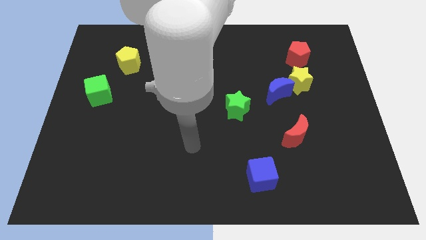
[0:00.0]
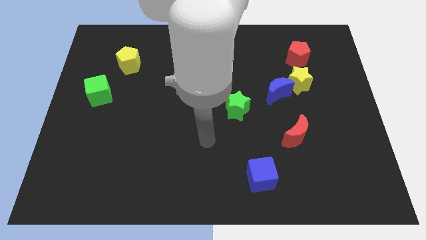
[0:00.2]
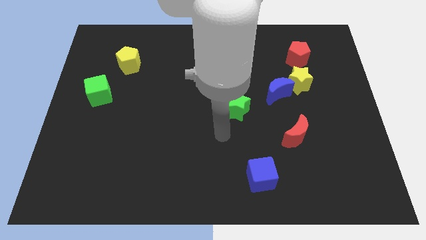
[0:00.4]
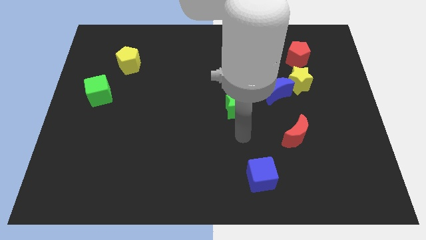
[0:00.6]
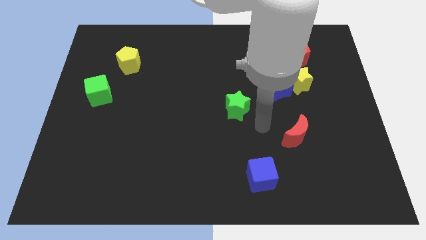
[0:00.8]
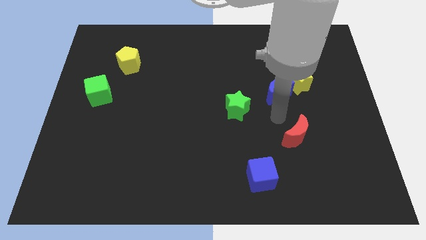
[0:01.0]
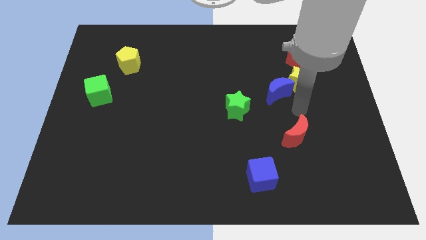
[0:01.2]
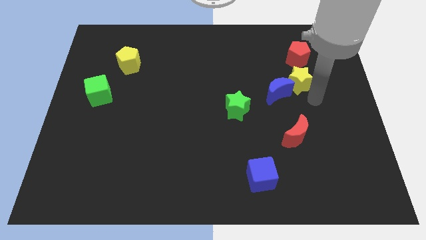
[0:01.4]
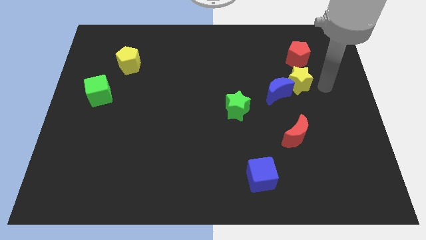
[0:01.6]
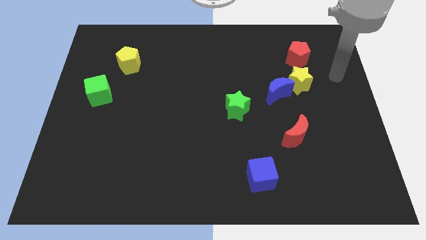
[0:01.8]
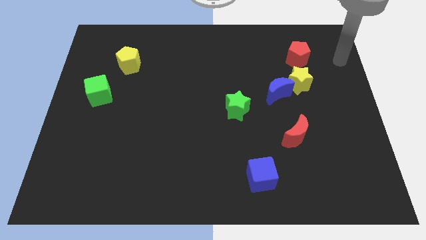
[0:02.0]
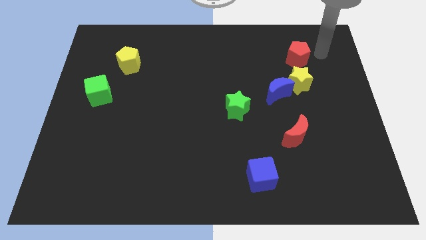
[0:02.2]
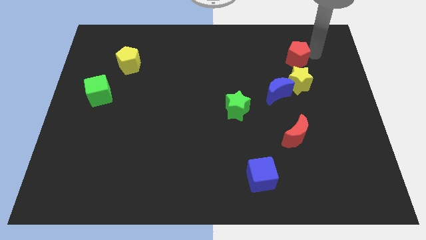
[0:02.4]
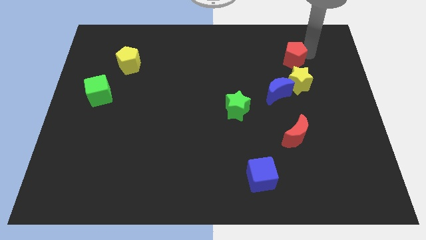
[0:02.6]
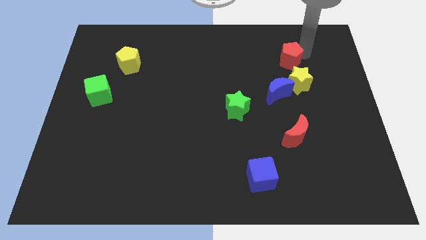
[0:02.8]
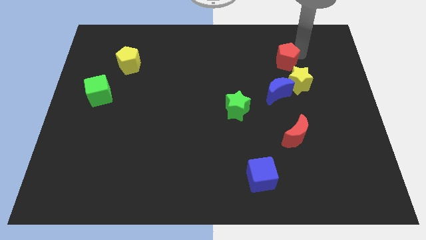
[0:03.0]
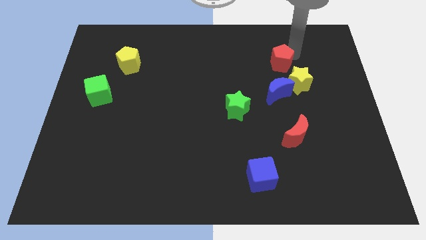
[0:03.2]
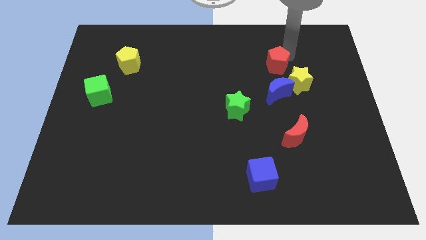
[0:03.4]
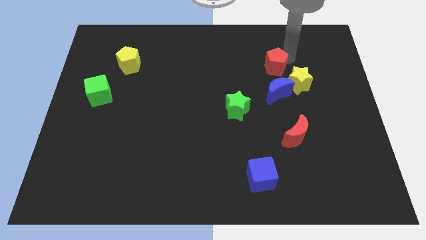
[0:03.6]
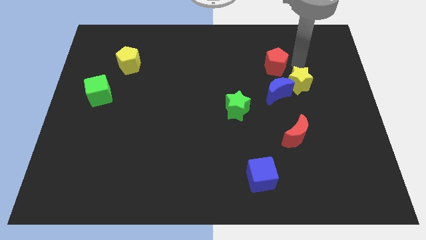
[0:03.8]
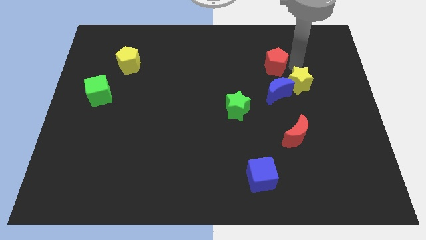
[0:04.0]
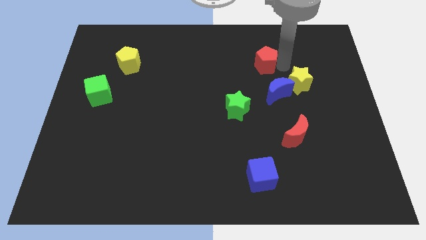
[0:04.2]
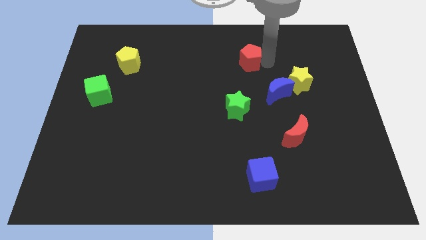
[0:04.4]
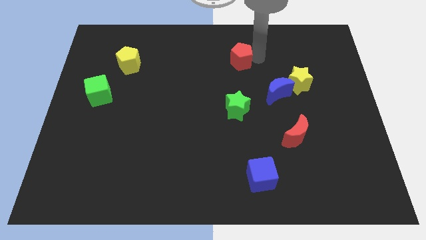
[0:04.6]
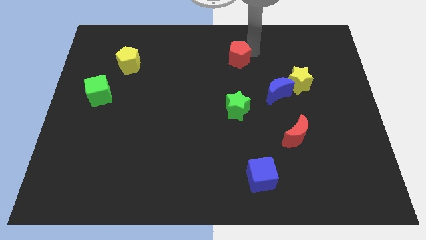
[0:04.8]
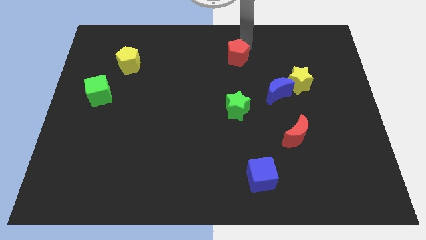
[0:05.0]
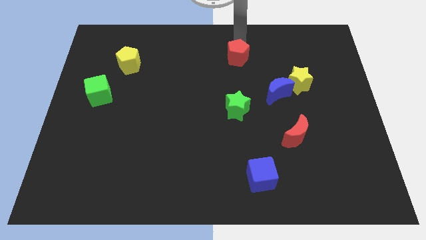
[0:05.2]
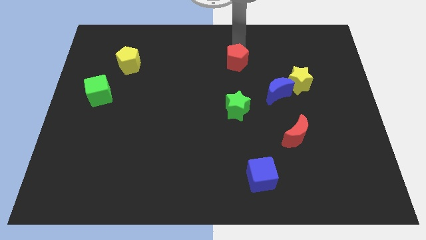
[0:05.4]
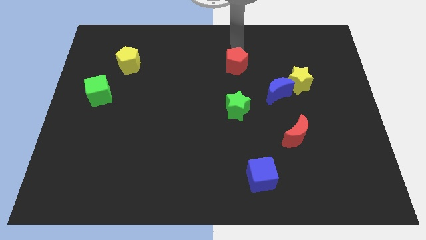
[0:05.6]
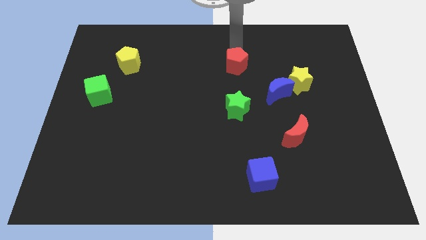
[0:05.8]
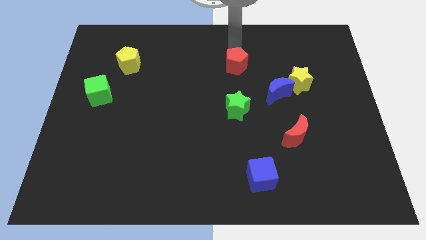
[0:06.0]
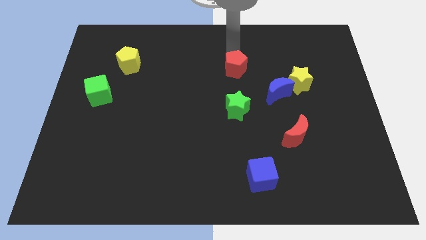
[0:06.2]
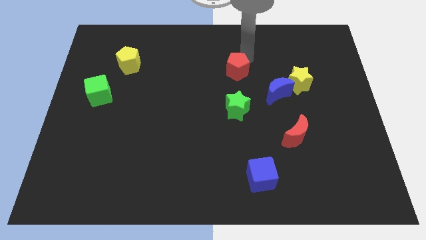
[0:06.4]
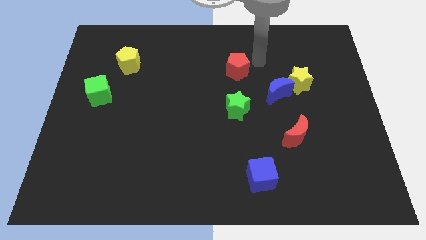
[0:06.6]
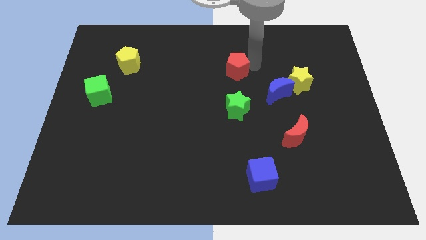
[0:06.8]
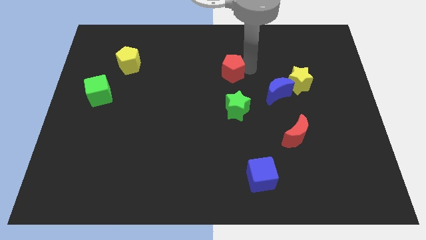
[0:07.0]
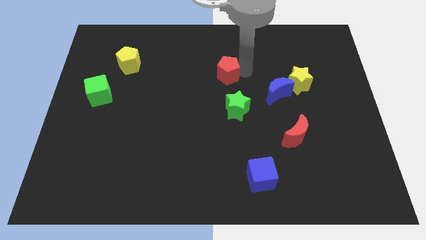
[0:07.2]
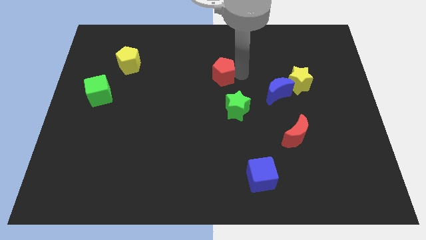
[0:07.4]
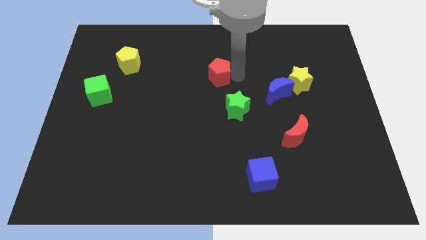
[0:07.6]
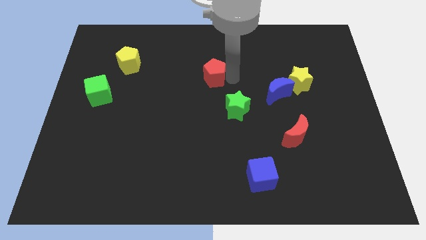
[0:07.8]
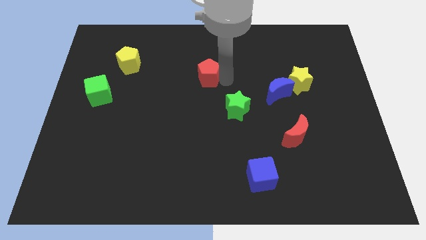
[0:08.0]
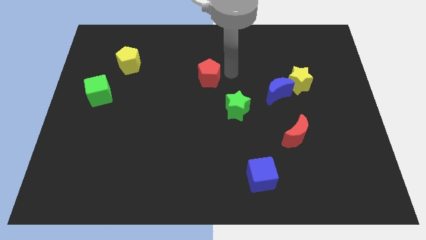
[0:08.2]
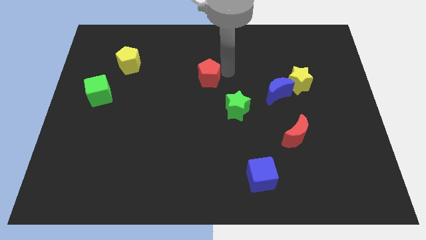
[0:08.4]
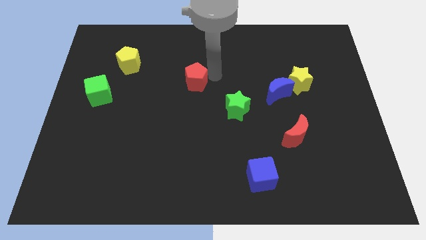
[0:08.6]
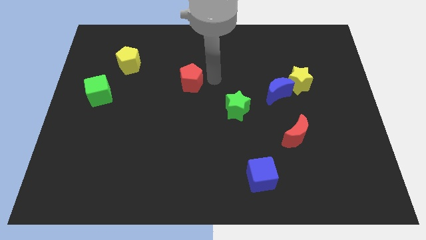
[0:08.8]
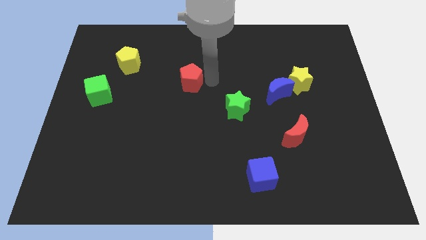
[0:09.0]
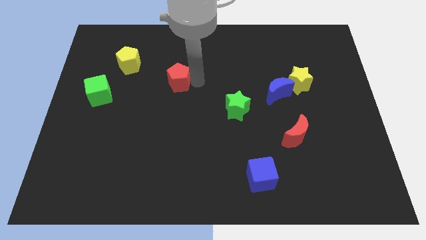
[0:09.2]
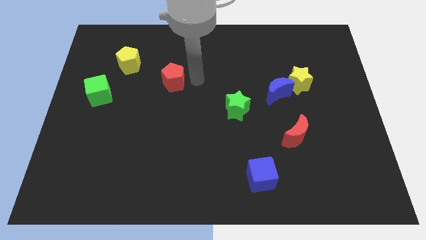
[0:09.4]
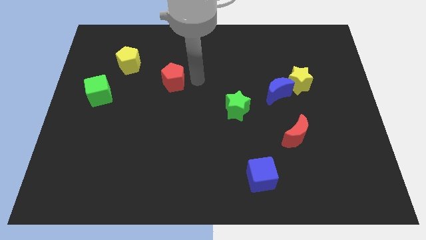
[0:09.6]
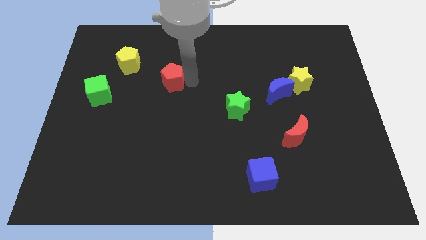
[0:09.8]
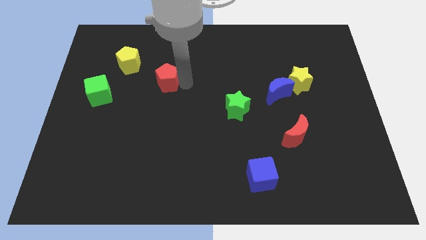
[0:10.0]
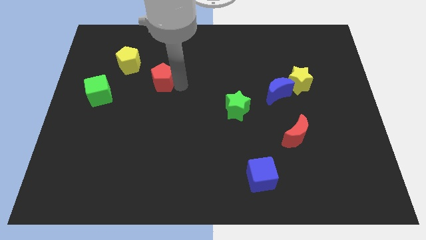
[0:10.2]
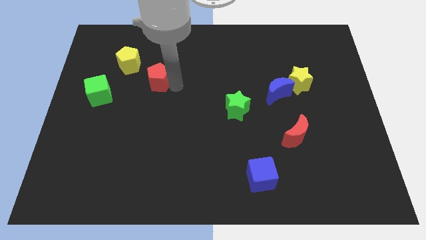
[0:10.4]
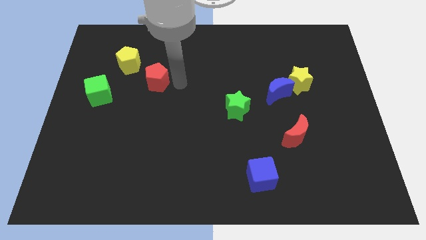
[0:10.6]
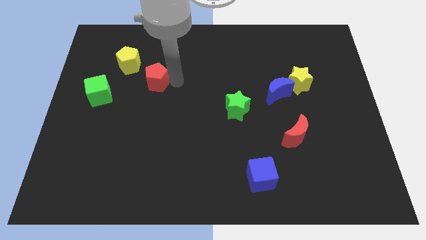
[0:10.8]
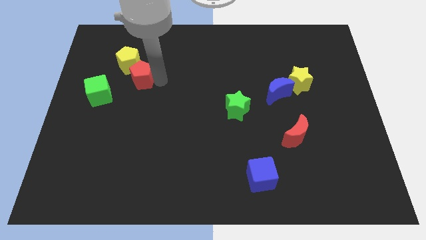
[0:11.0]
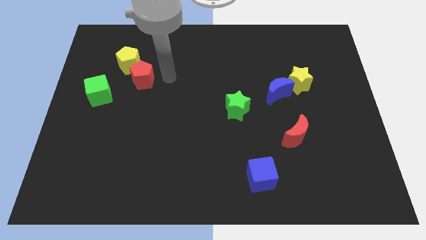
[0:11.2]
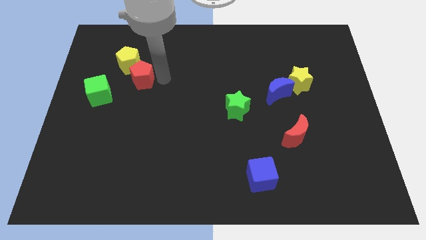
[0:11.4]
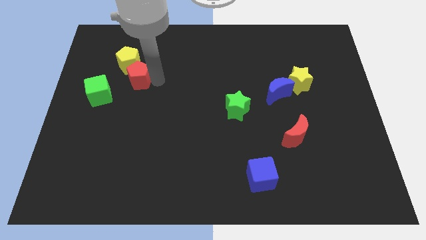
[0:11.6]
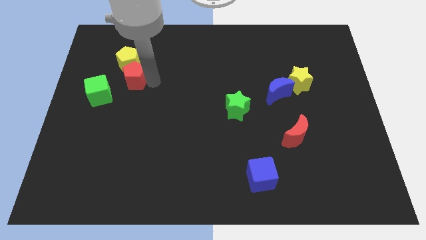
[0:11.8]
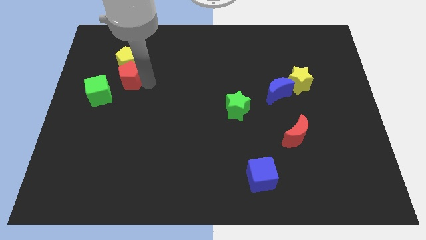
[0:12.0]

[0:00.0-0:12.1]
put the red pentagon diagonally down and to the left of the yellow pentagon

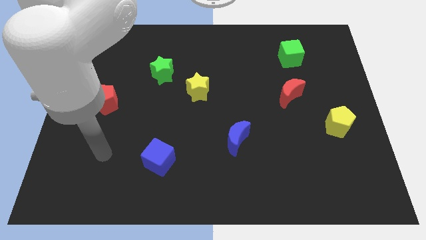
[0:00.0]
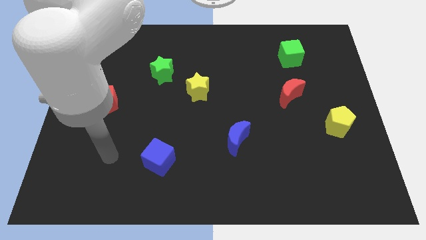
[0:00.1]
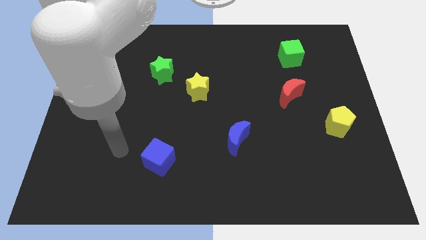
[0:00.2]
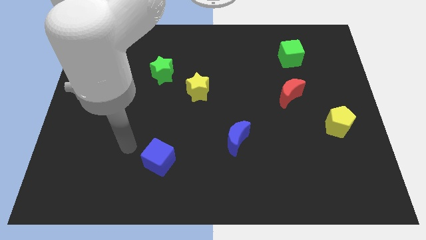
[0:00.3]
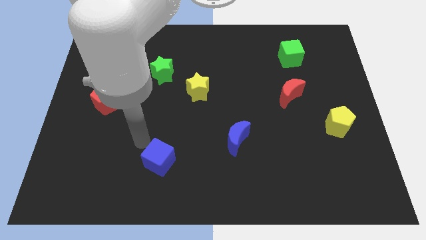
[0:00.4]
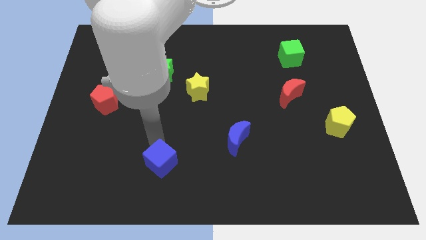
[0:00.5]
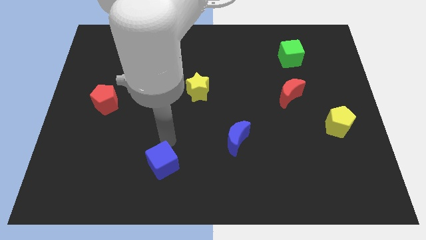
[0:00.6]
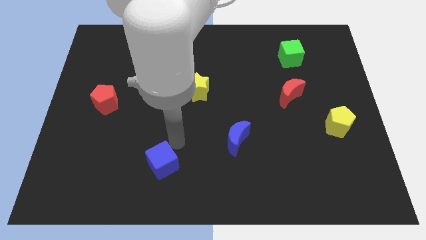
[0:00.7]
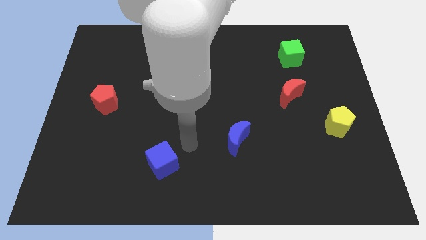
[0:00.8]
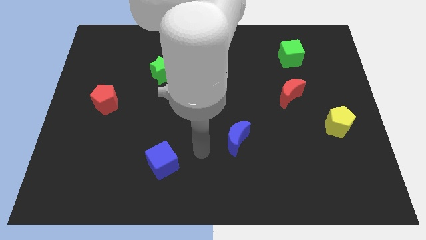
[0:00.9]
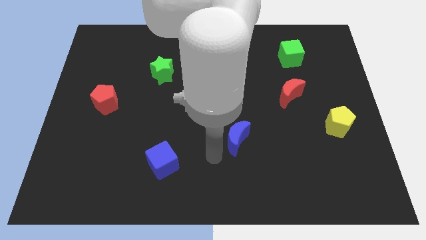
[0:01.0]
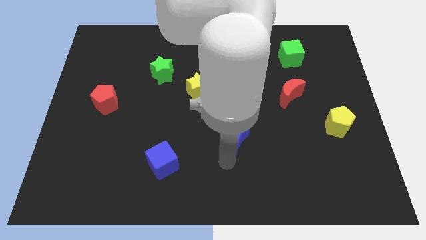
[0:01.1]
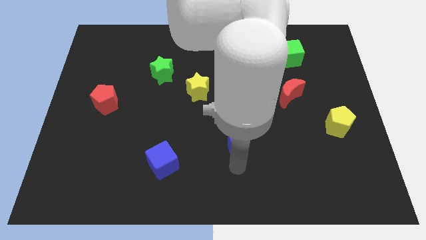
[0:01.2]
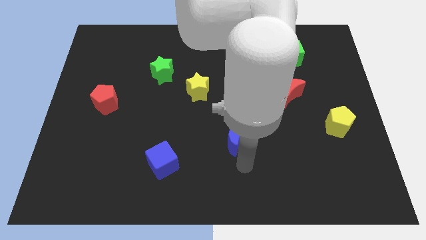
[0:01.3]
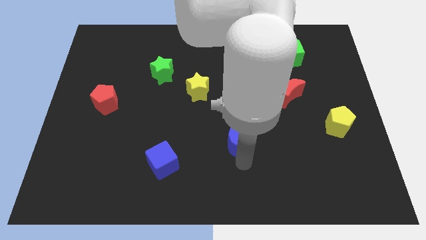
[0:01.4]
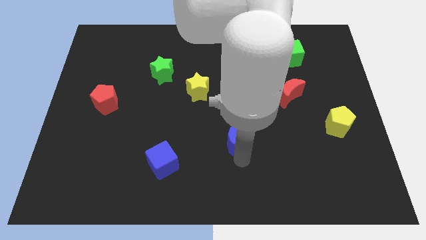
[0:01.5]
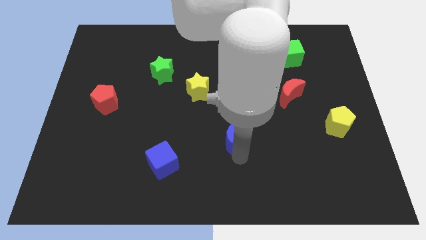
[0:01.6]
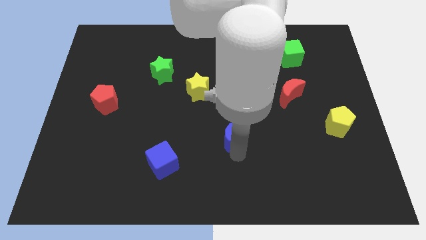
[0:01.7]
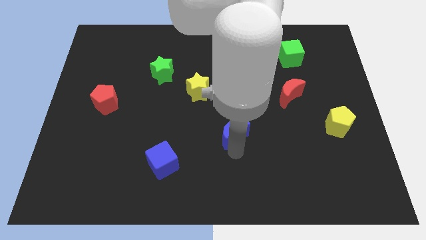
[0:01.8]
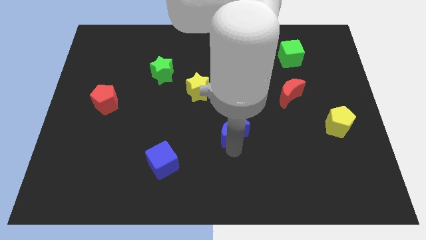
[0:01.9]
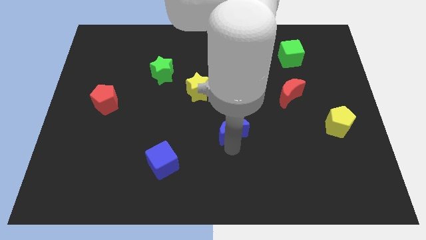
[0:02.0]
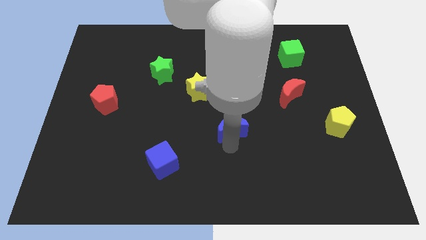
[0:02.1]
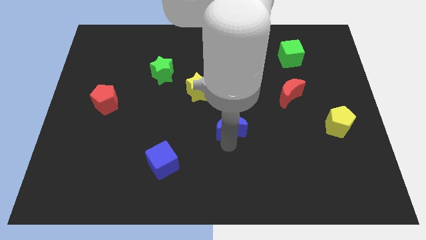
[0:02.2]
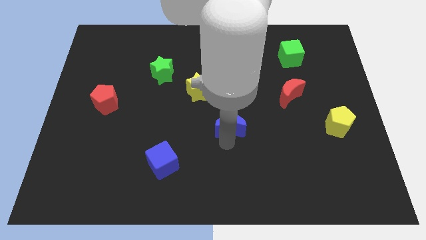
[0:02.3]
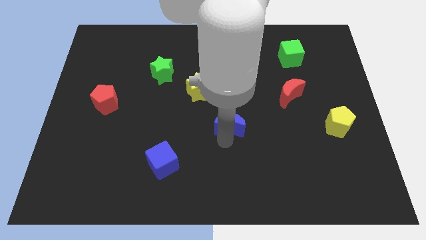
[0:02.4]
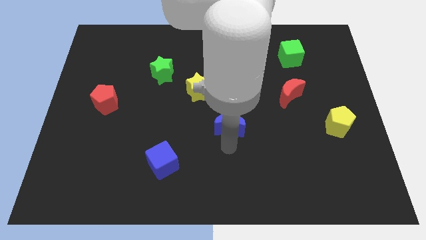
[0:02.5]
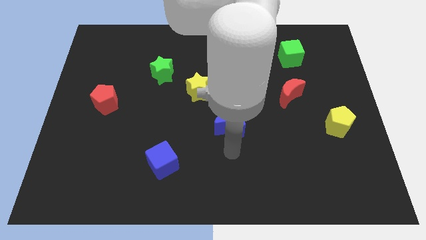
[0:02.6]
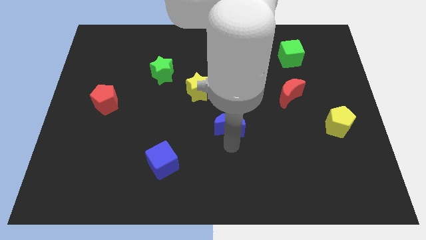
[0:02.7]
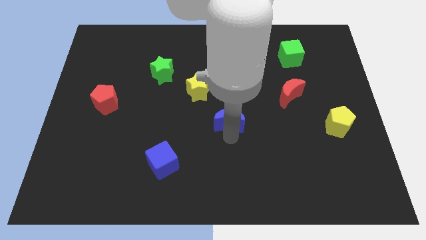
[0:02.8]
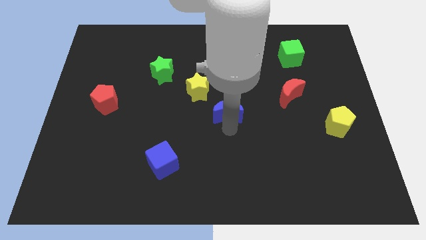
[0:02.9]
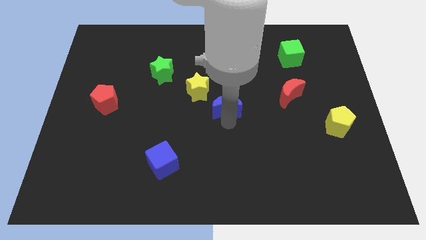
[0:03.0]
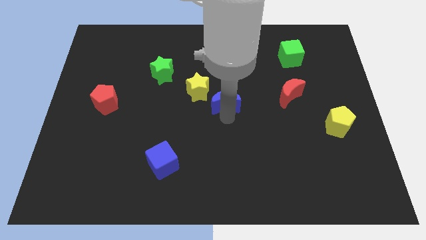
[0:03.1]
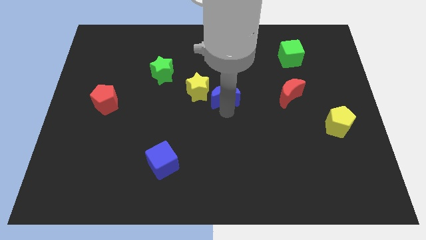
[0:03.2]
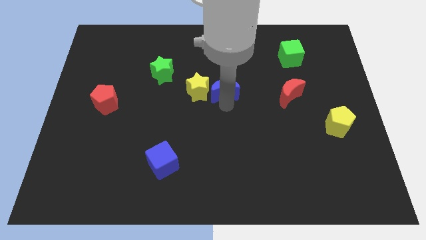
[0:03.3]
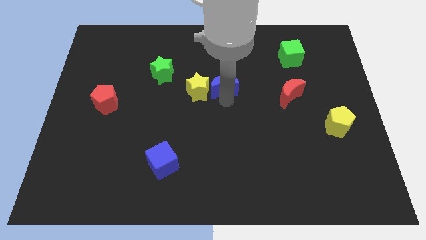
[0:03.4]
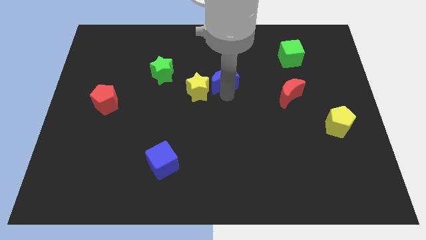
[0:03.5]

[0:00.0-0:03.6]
move the blue moon to the right of the green star
